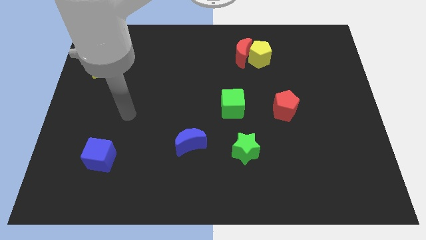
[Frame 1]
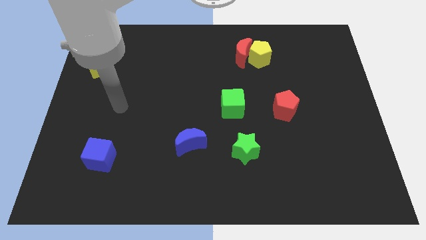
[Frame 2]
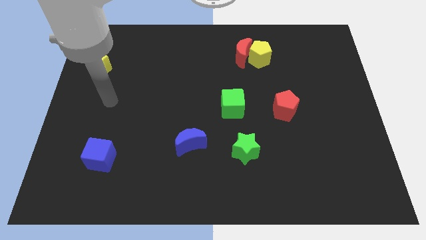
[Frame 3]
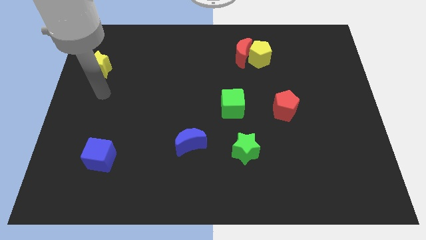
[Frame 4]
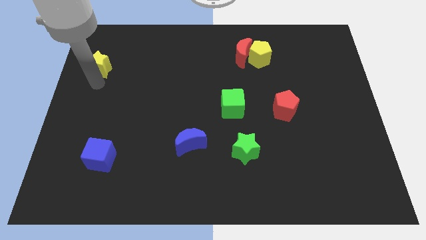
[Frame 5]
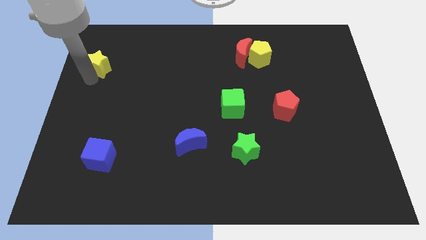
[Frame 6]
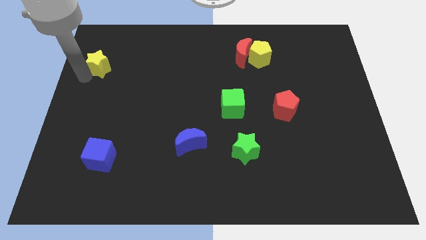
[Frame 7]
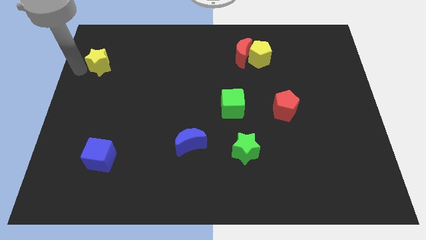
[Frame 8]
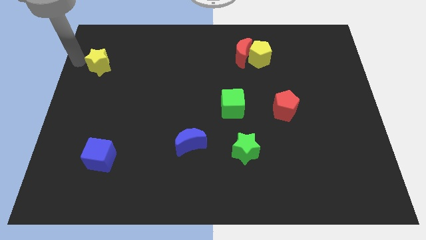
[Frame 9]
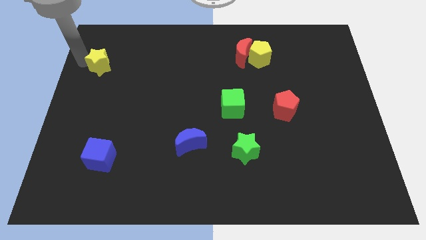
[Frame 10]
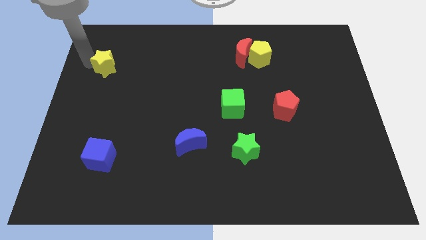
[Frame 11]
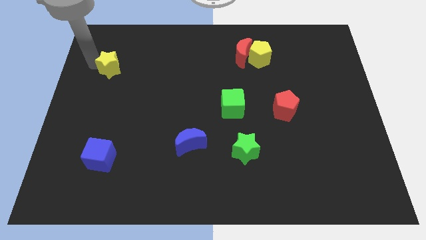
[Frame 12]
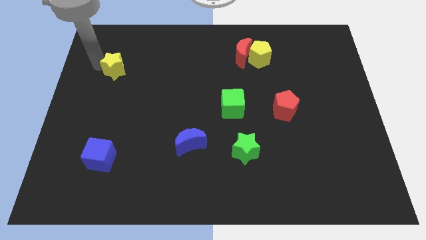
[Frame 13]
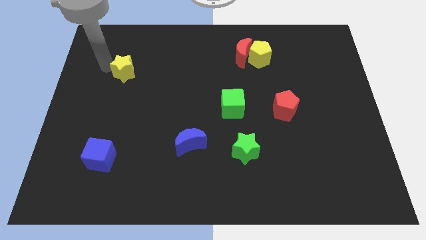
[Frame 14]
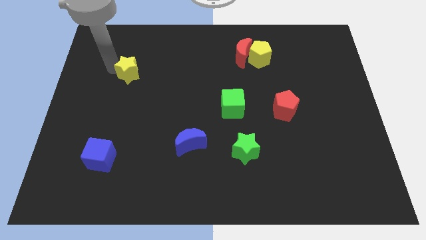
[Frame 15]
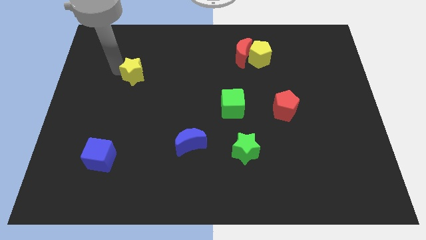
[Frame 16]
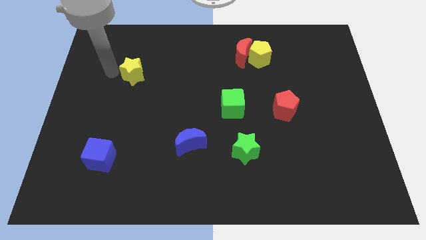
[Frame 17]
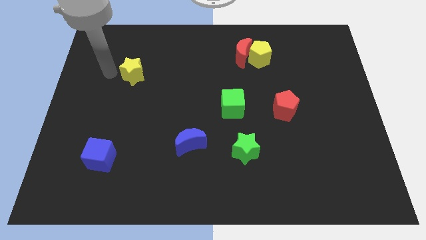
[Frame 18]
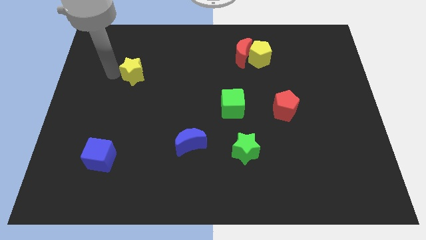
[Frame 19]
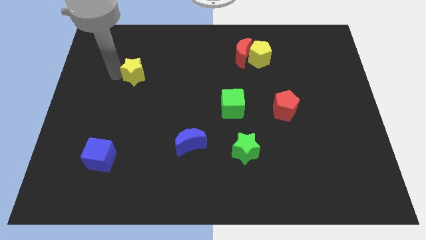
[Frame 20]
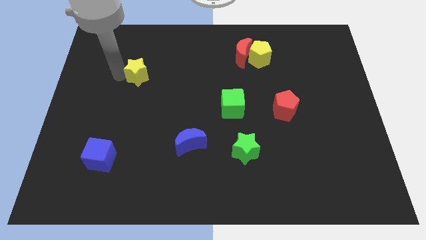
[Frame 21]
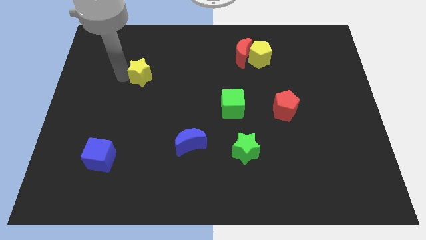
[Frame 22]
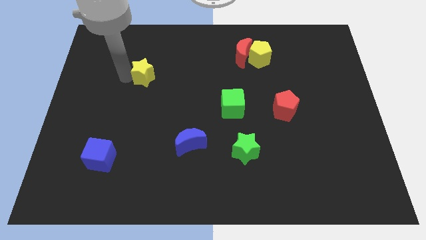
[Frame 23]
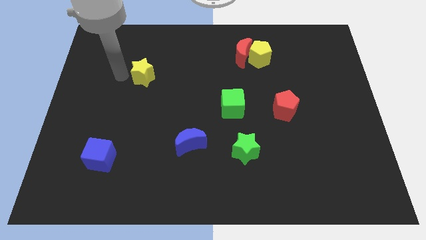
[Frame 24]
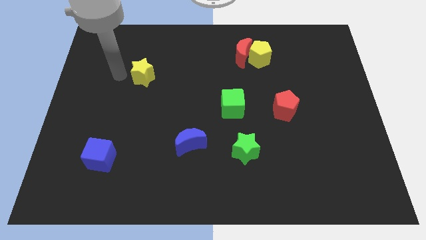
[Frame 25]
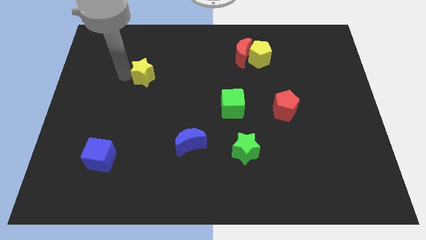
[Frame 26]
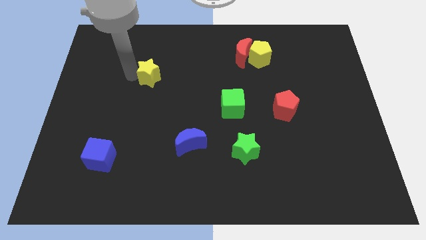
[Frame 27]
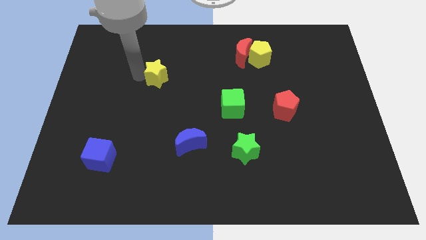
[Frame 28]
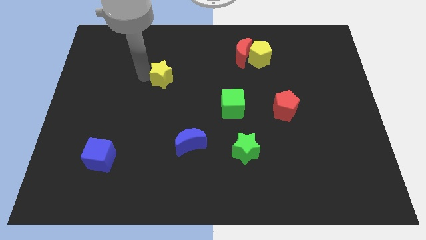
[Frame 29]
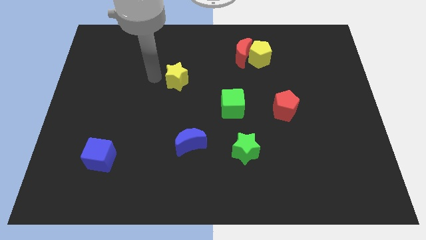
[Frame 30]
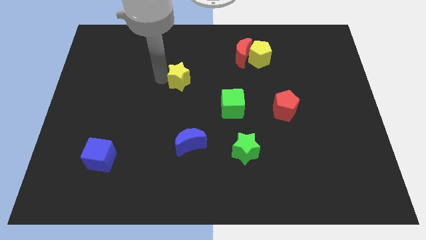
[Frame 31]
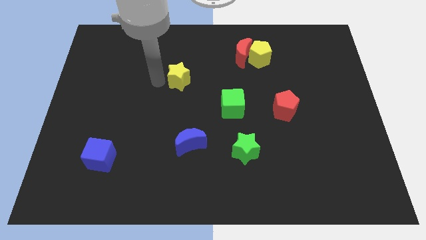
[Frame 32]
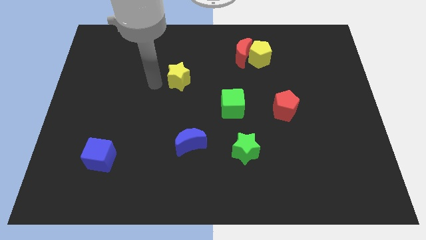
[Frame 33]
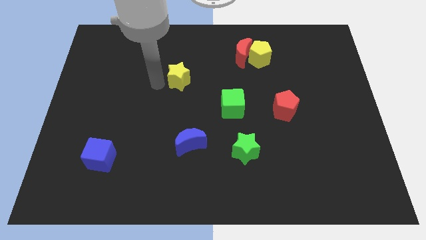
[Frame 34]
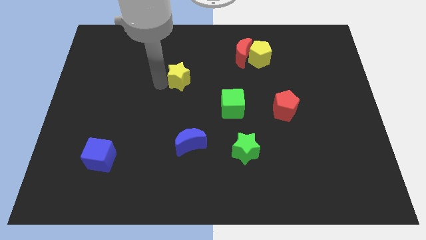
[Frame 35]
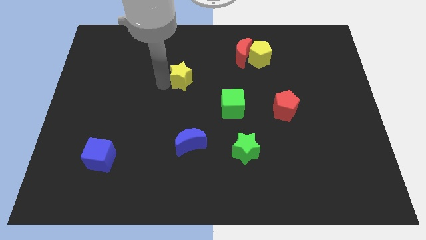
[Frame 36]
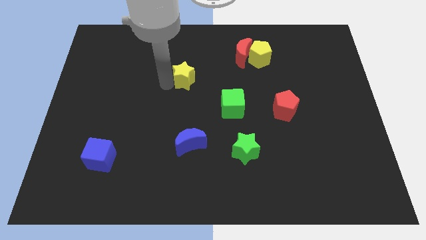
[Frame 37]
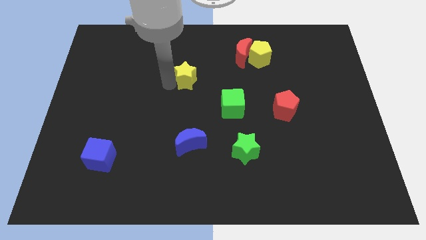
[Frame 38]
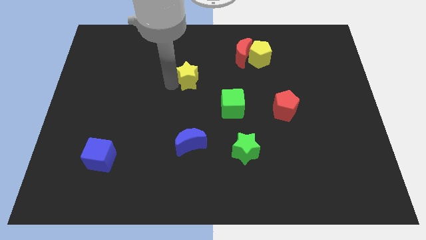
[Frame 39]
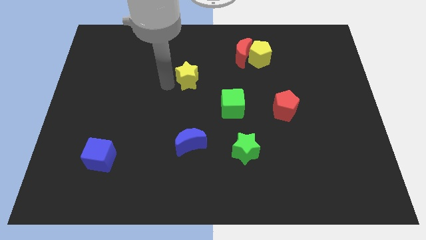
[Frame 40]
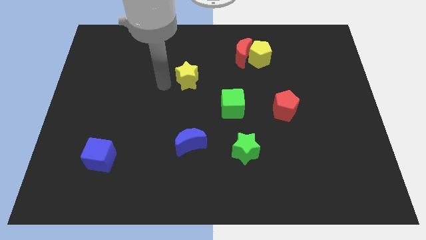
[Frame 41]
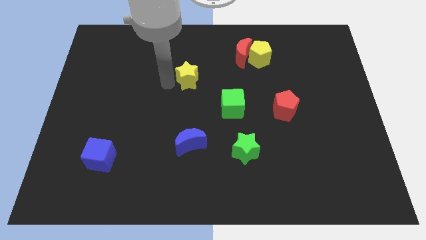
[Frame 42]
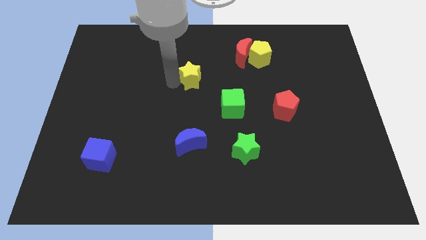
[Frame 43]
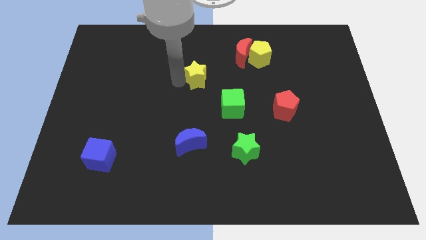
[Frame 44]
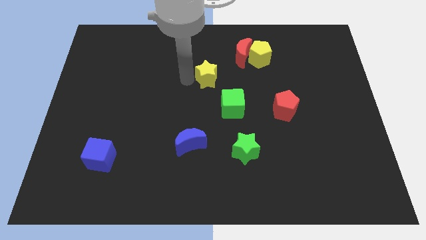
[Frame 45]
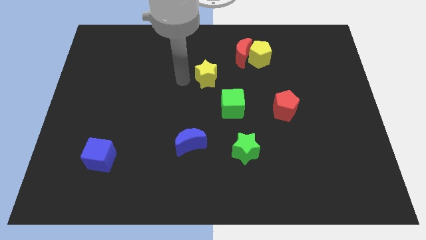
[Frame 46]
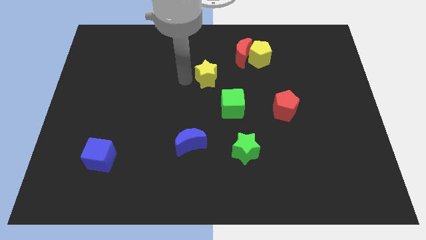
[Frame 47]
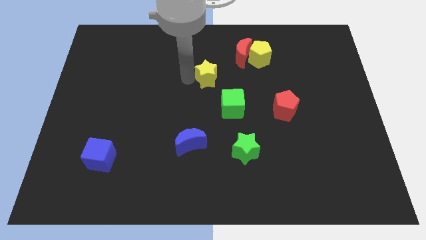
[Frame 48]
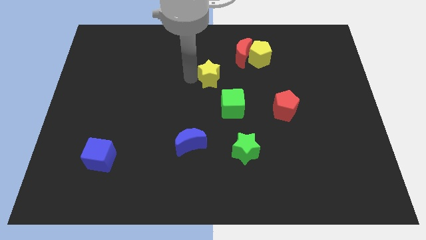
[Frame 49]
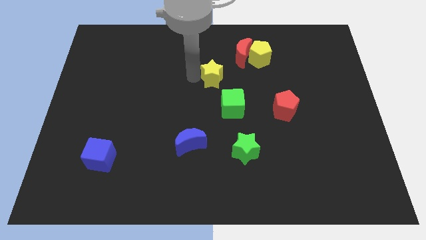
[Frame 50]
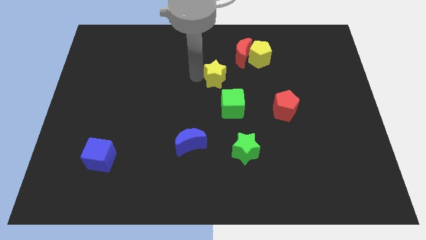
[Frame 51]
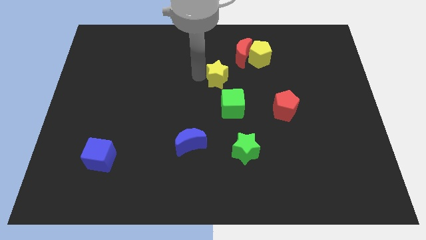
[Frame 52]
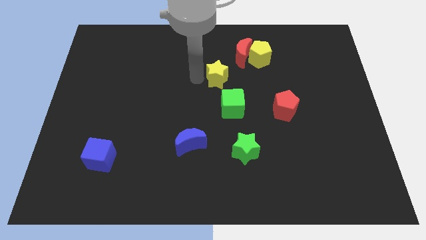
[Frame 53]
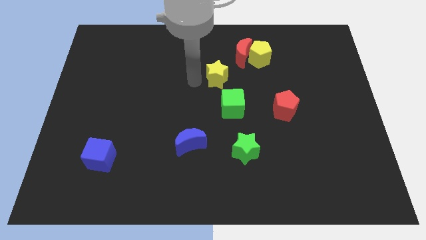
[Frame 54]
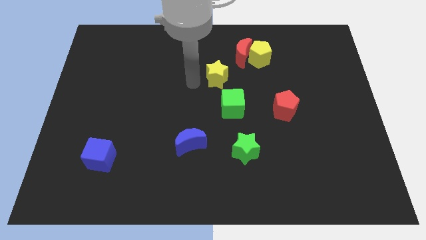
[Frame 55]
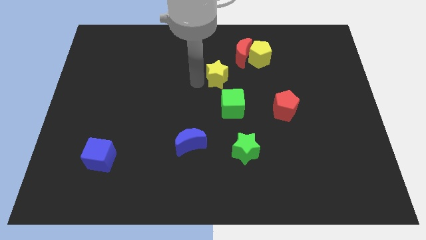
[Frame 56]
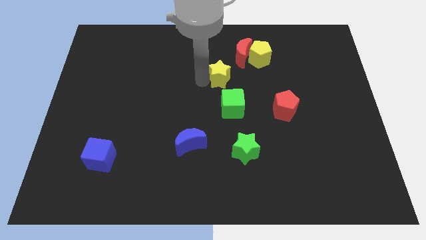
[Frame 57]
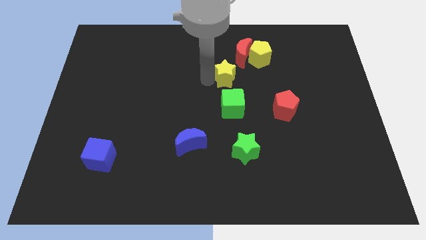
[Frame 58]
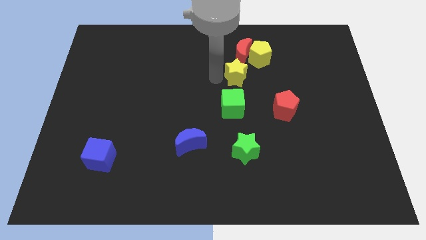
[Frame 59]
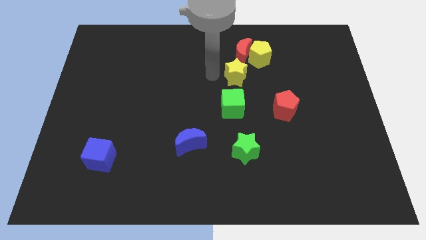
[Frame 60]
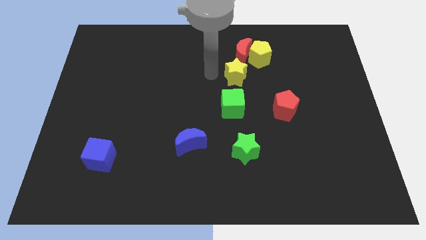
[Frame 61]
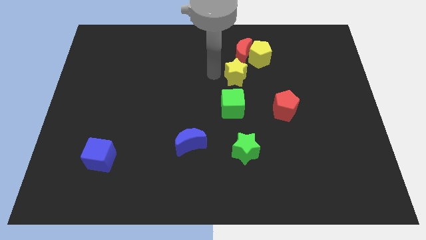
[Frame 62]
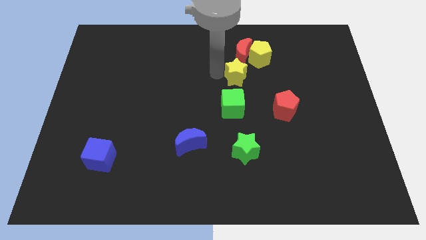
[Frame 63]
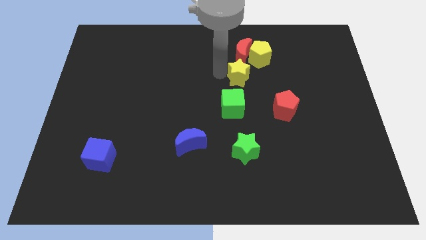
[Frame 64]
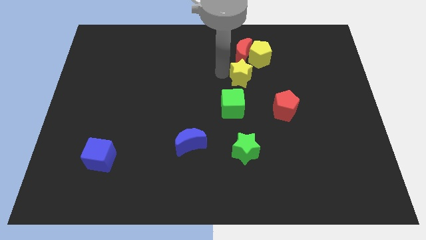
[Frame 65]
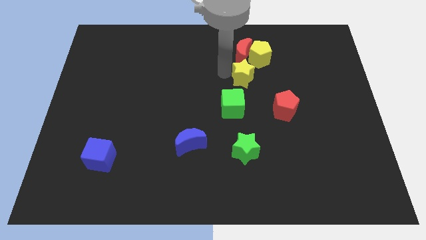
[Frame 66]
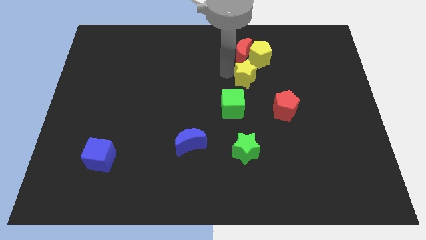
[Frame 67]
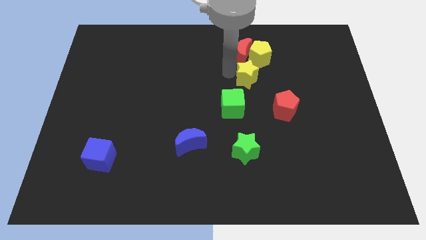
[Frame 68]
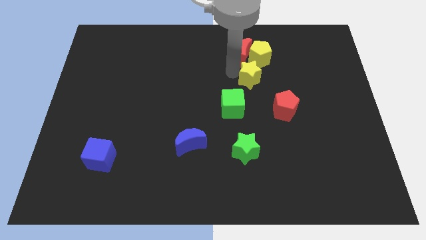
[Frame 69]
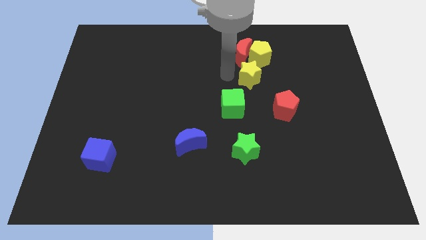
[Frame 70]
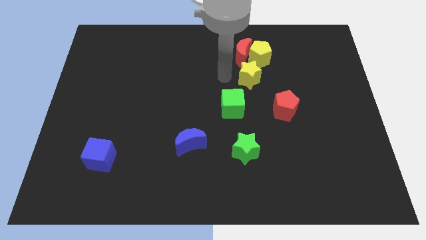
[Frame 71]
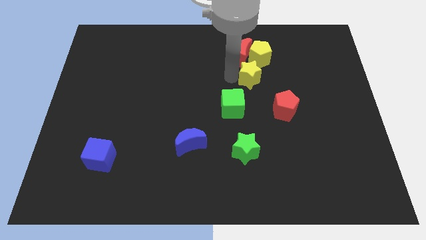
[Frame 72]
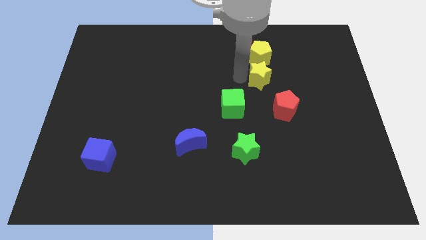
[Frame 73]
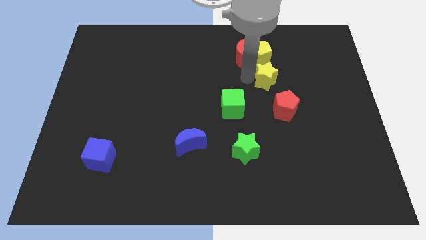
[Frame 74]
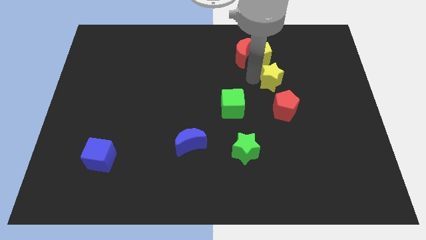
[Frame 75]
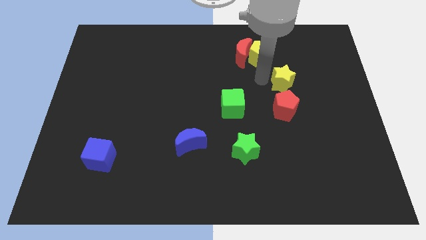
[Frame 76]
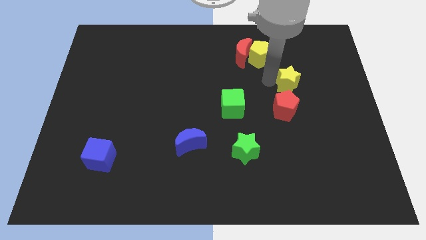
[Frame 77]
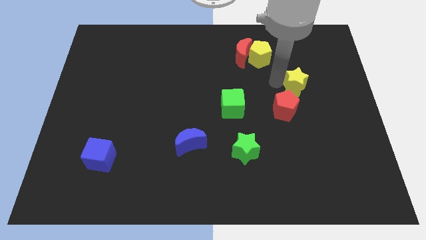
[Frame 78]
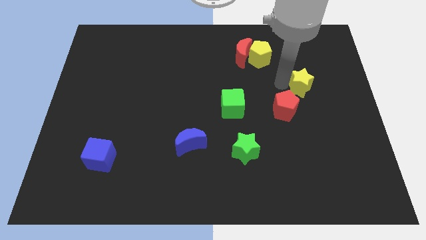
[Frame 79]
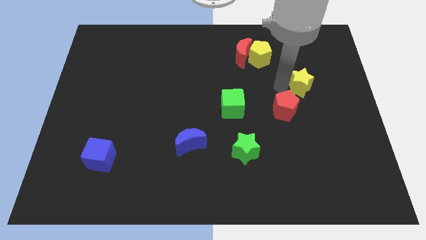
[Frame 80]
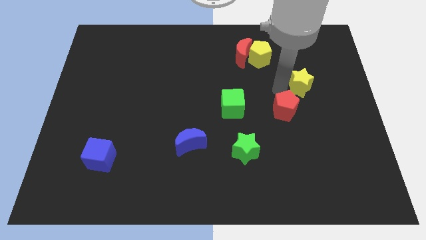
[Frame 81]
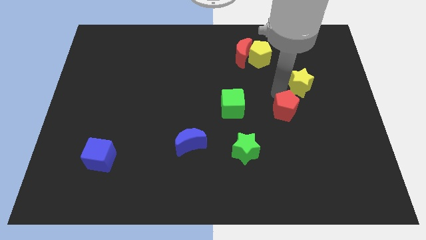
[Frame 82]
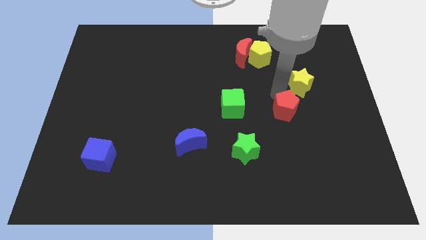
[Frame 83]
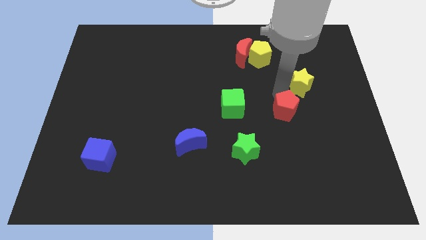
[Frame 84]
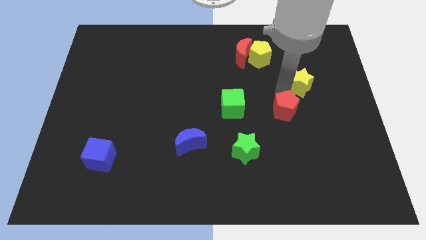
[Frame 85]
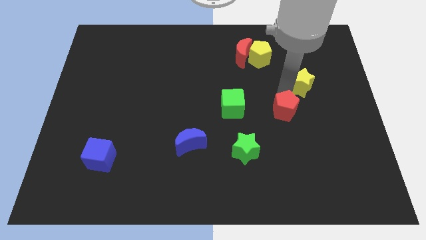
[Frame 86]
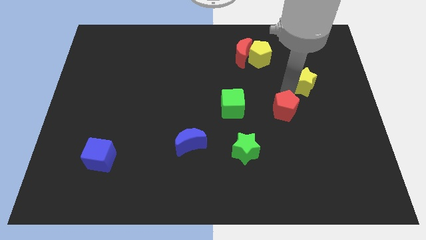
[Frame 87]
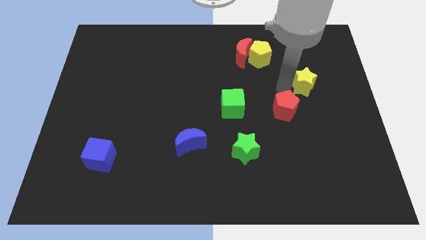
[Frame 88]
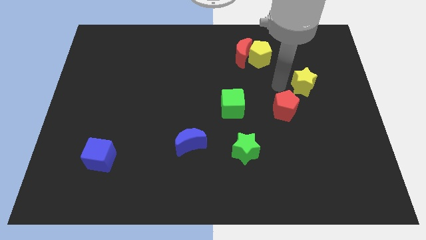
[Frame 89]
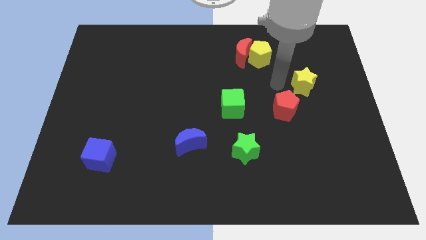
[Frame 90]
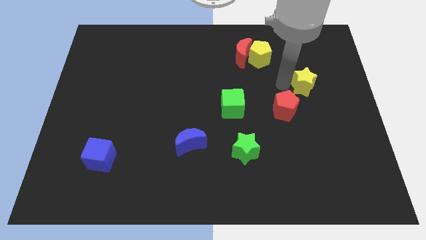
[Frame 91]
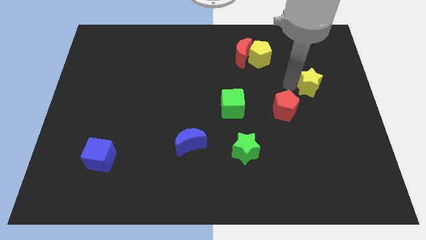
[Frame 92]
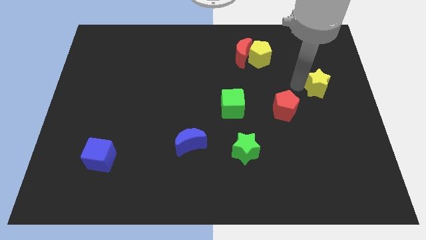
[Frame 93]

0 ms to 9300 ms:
put the yellow star to the right side of the board
